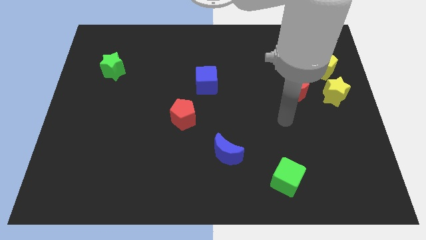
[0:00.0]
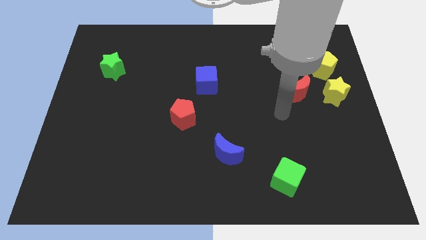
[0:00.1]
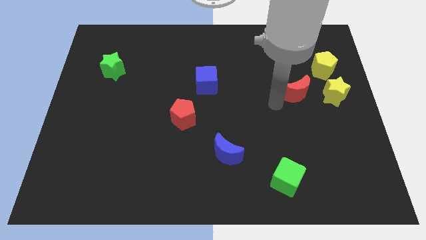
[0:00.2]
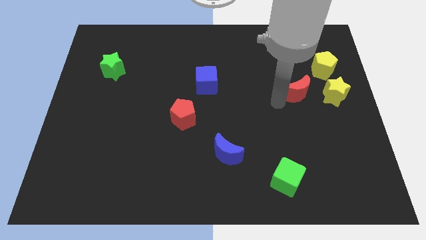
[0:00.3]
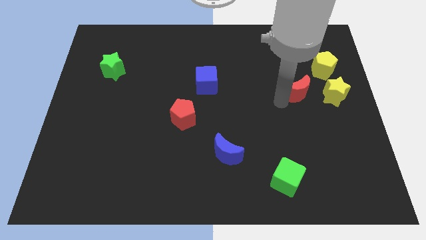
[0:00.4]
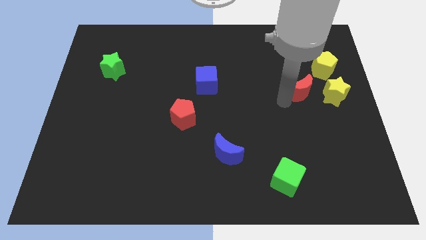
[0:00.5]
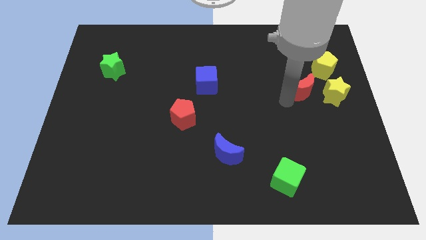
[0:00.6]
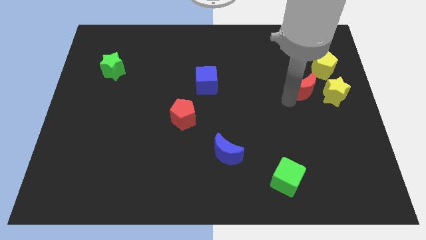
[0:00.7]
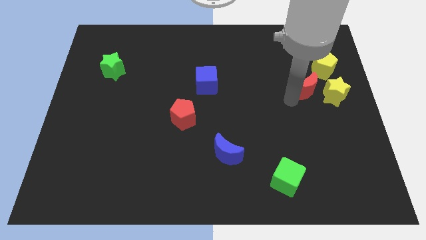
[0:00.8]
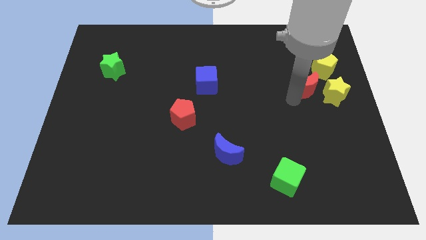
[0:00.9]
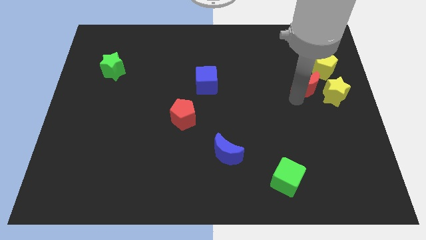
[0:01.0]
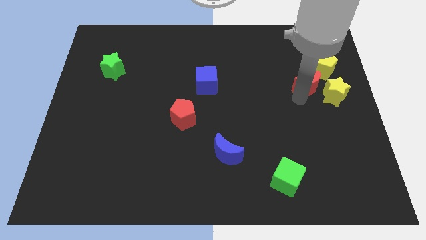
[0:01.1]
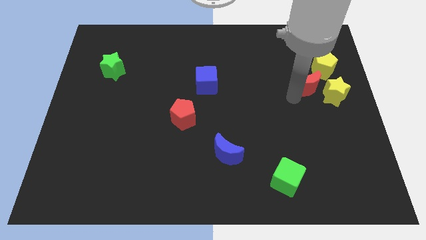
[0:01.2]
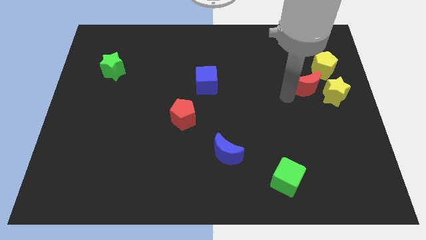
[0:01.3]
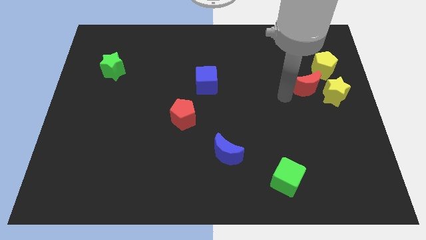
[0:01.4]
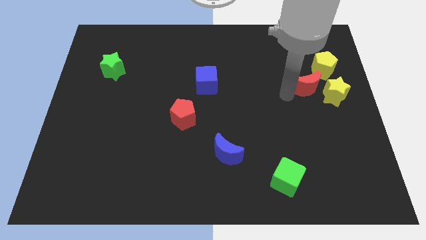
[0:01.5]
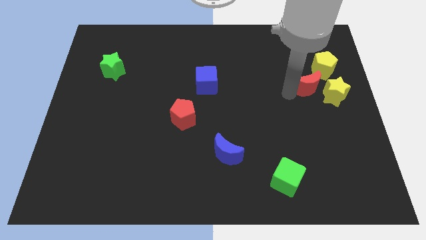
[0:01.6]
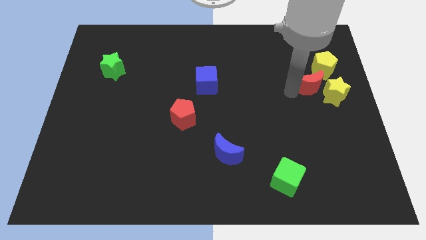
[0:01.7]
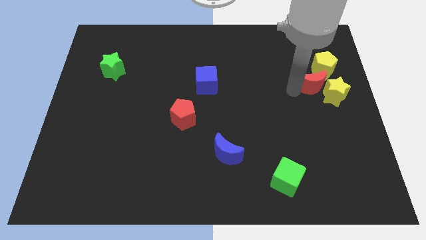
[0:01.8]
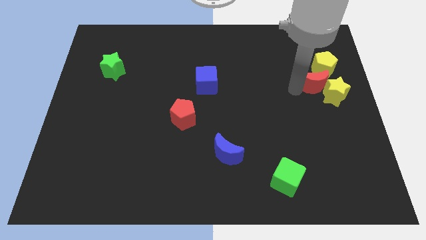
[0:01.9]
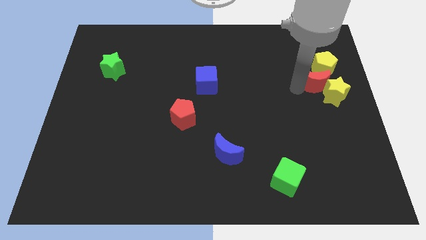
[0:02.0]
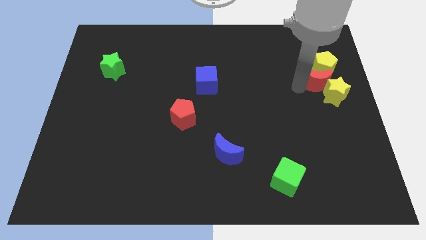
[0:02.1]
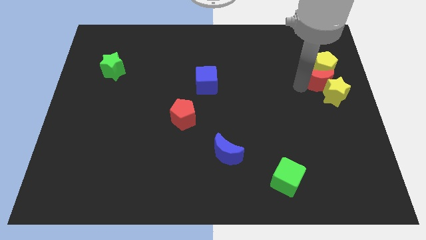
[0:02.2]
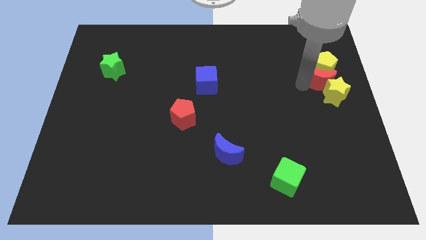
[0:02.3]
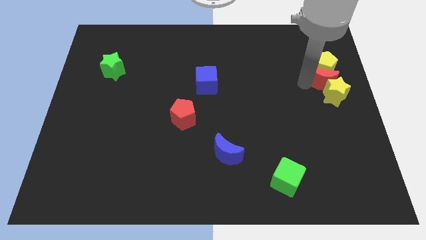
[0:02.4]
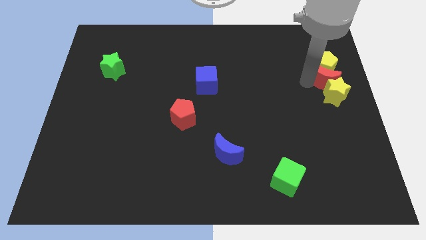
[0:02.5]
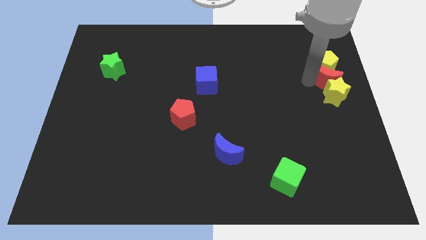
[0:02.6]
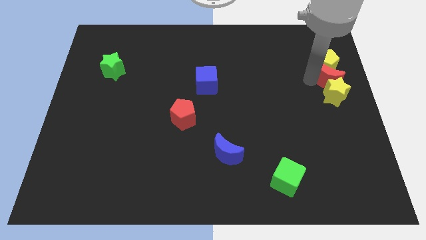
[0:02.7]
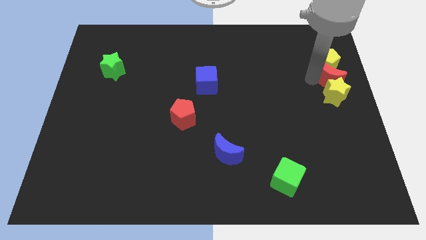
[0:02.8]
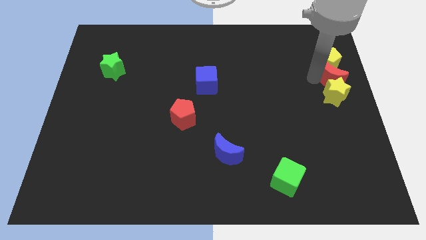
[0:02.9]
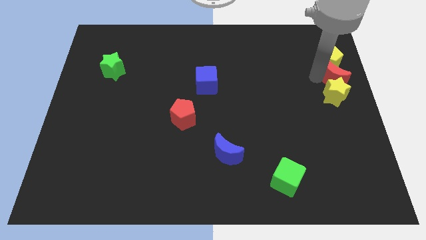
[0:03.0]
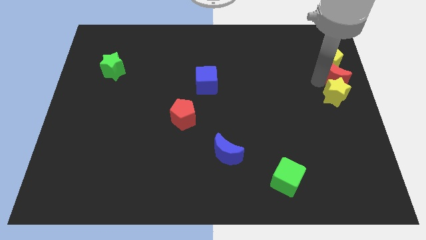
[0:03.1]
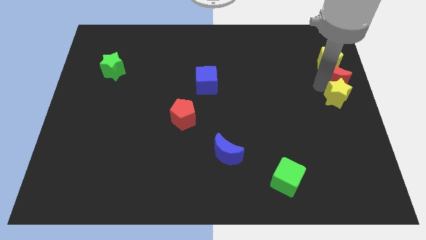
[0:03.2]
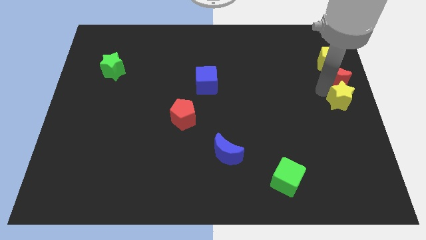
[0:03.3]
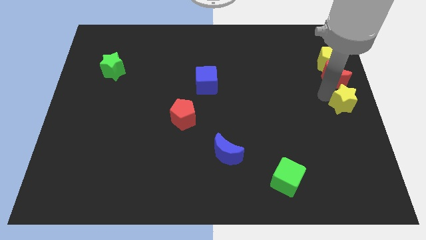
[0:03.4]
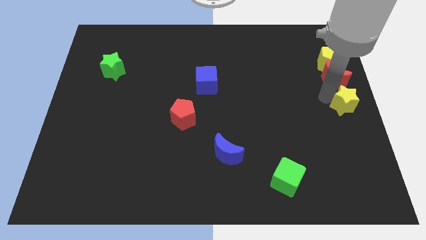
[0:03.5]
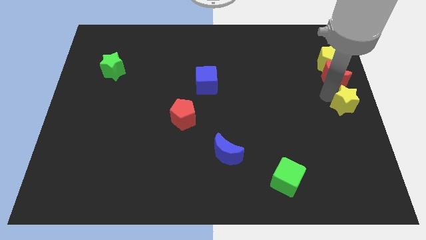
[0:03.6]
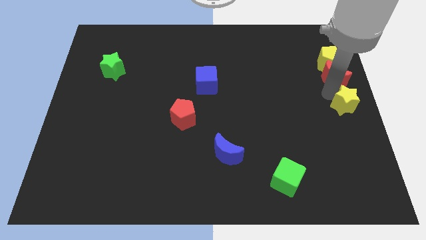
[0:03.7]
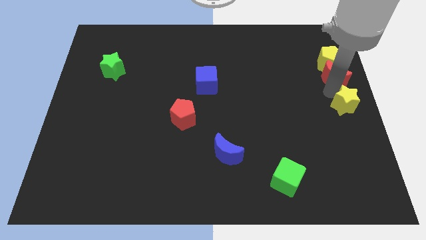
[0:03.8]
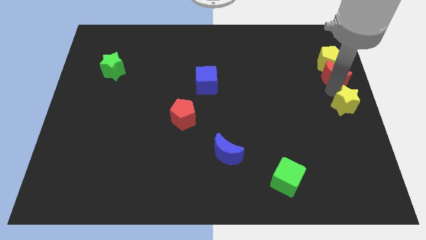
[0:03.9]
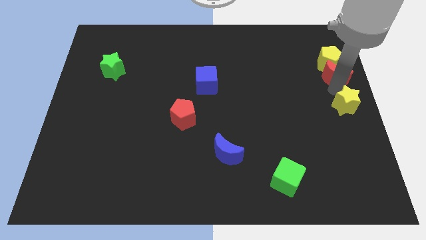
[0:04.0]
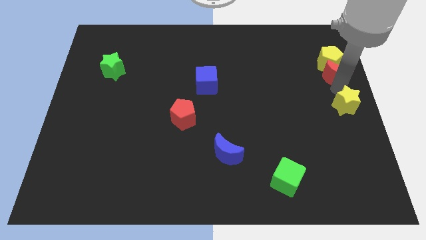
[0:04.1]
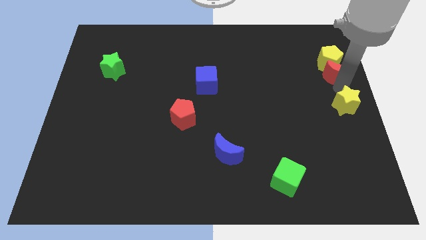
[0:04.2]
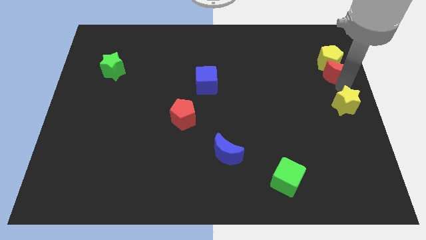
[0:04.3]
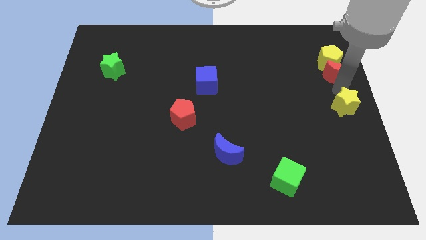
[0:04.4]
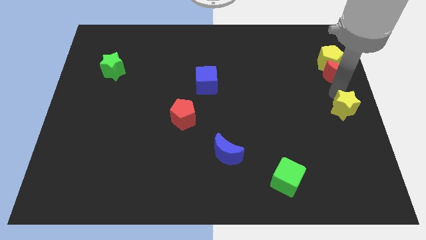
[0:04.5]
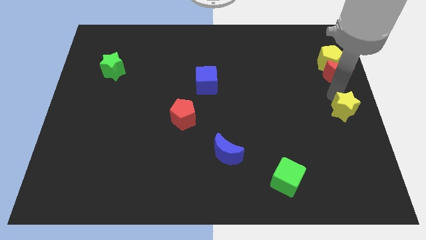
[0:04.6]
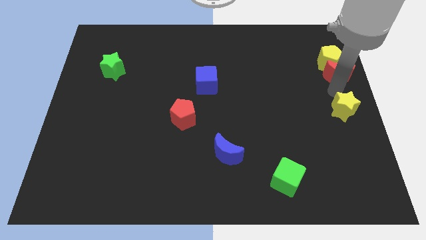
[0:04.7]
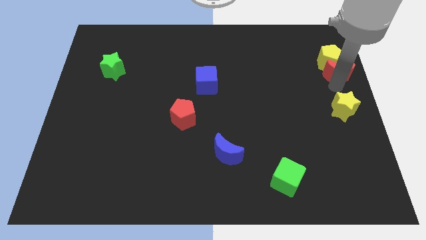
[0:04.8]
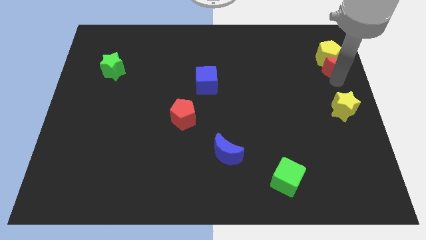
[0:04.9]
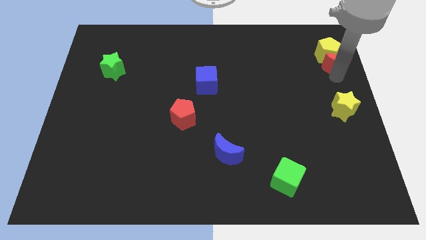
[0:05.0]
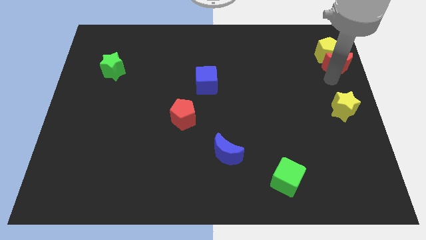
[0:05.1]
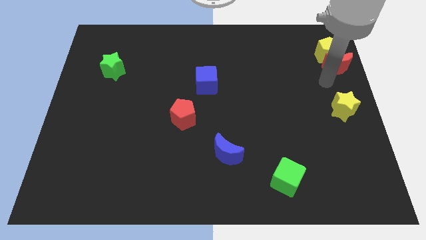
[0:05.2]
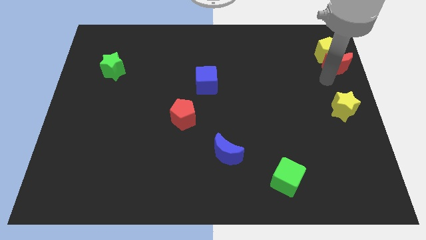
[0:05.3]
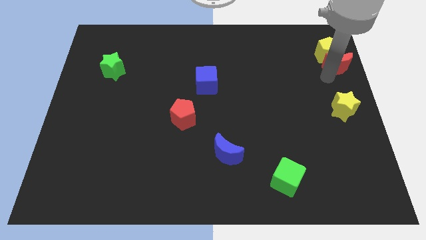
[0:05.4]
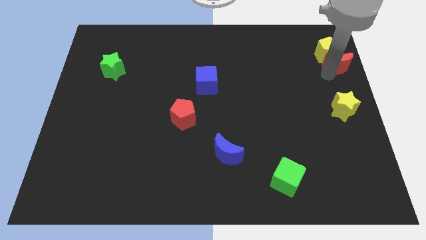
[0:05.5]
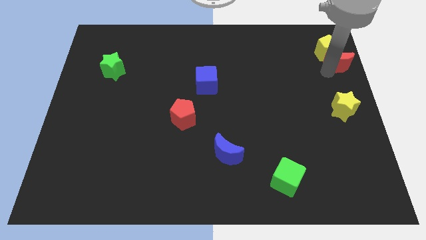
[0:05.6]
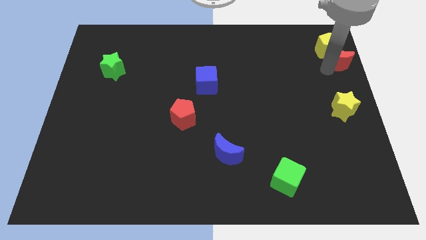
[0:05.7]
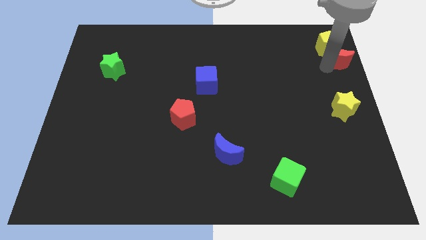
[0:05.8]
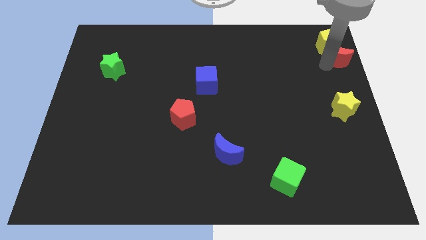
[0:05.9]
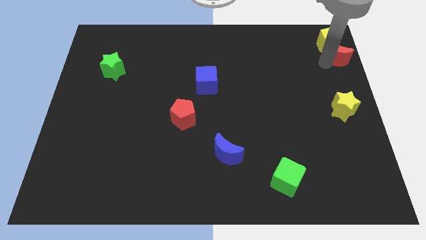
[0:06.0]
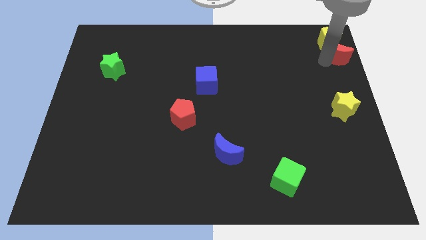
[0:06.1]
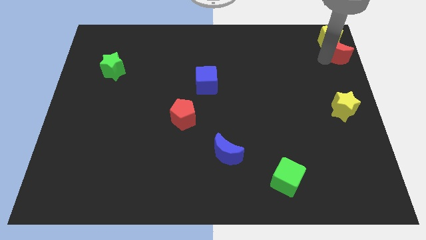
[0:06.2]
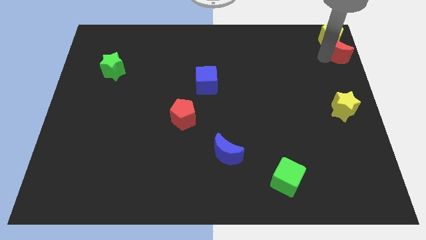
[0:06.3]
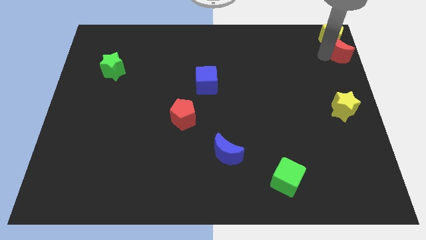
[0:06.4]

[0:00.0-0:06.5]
push the red moon to the upper right corner
